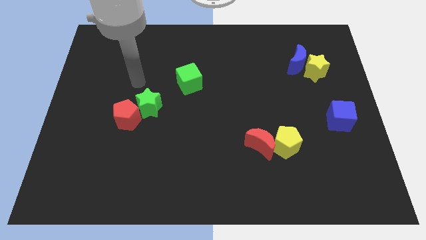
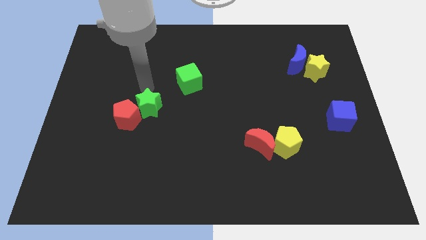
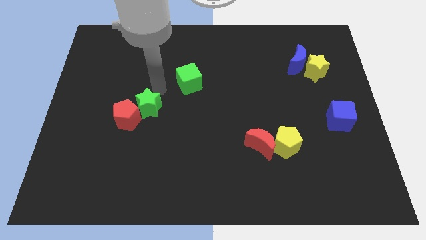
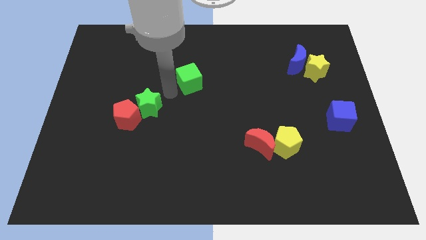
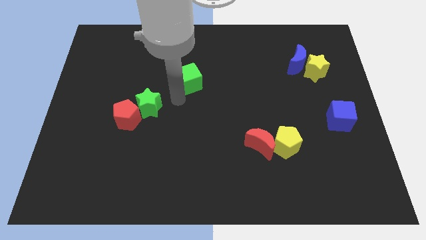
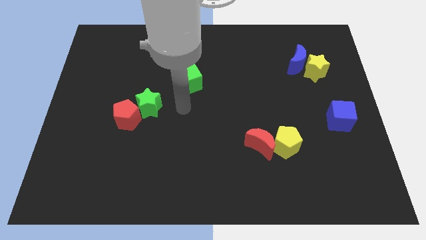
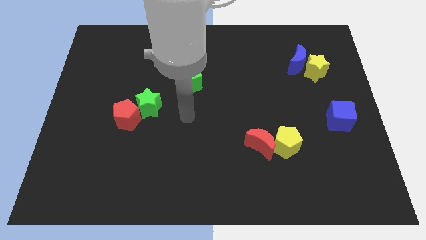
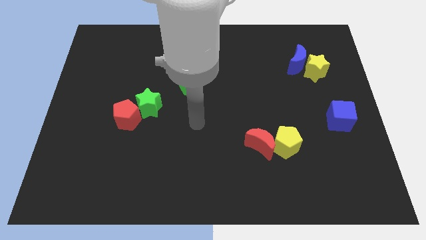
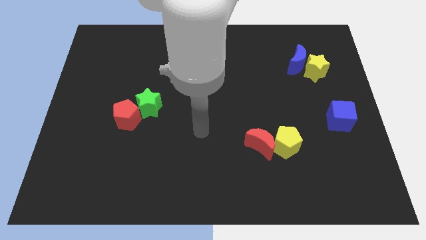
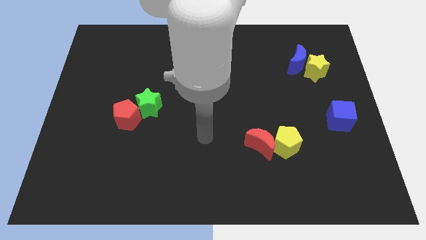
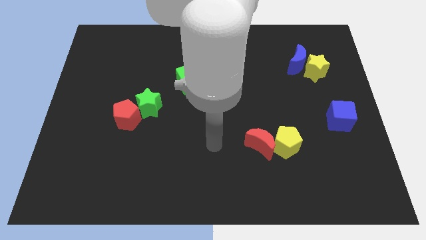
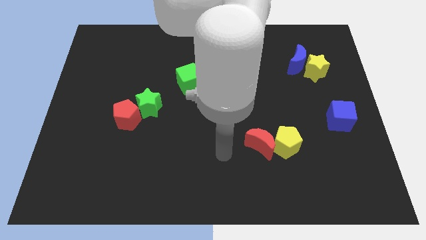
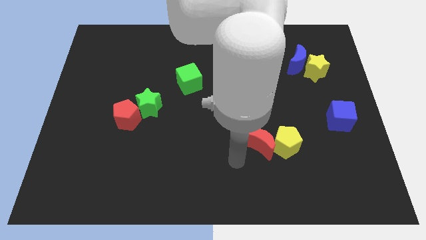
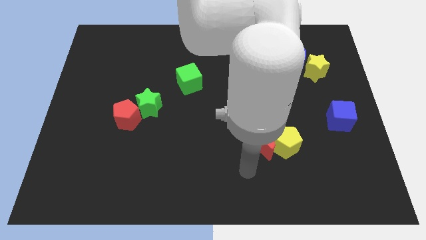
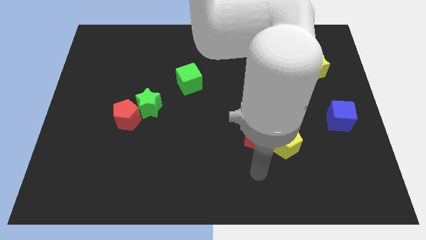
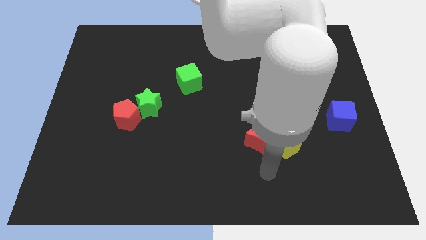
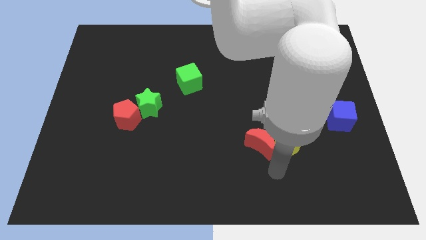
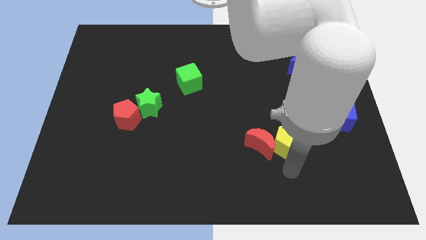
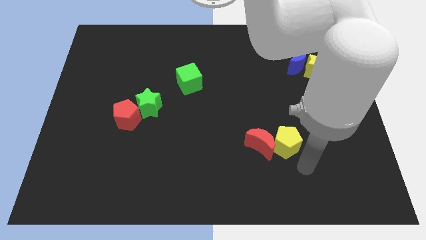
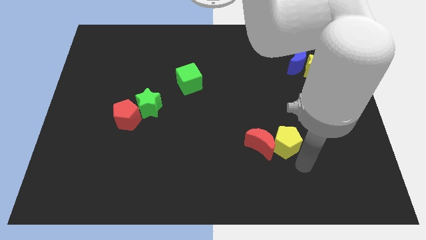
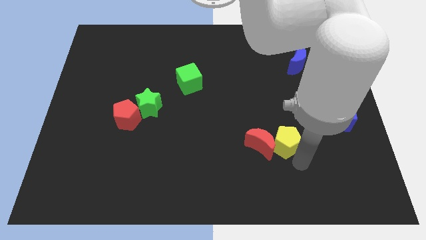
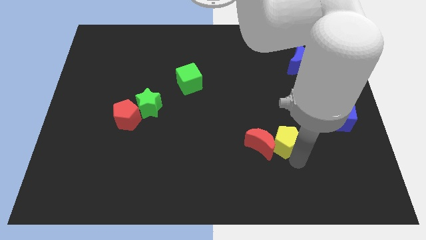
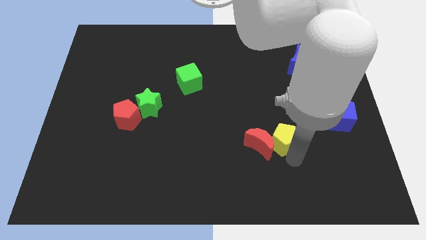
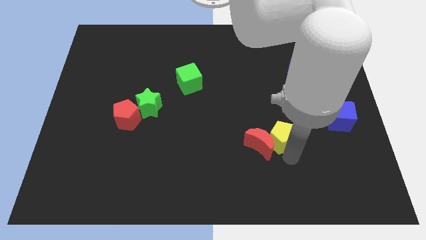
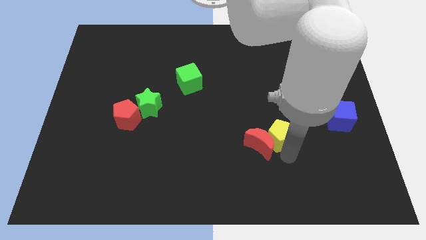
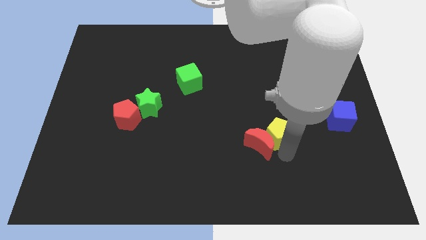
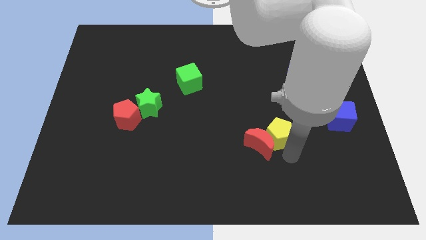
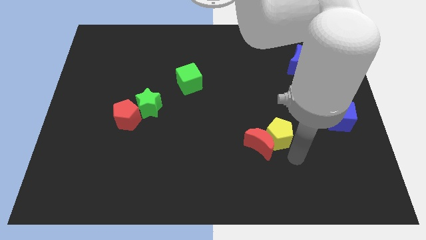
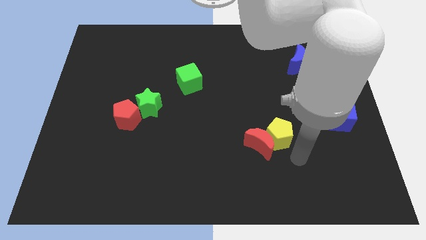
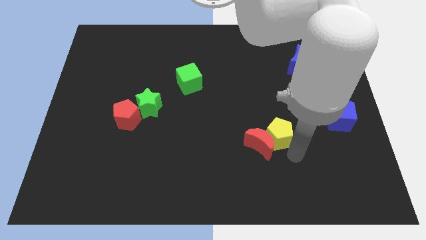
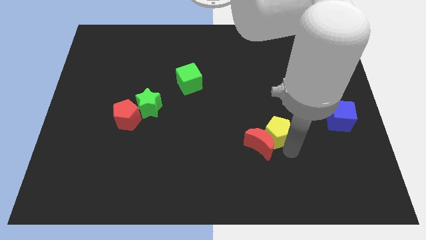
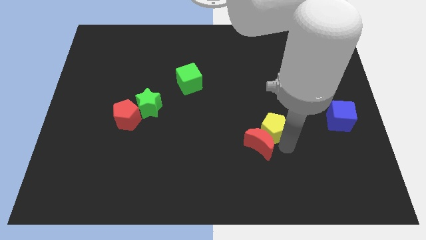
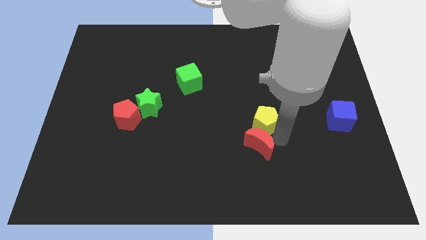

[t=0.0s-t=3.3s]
push the yellow pentagon somewhat upwards and then to the left

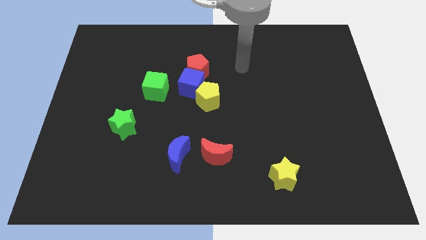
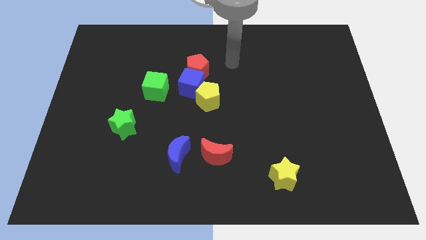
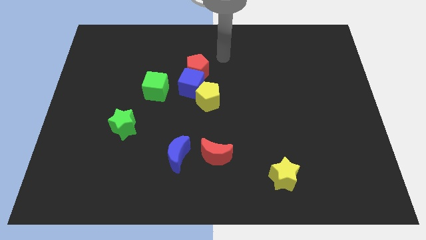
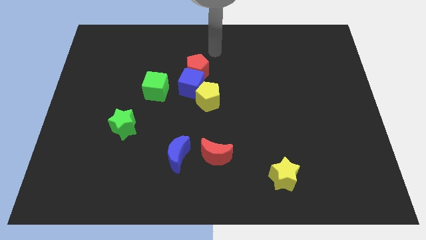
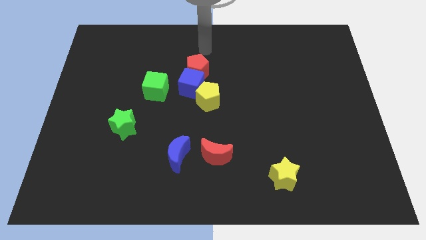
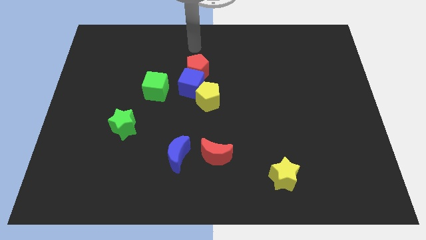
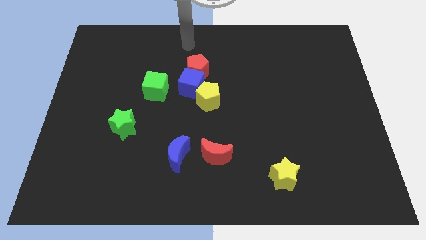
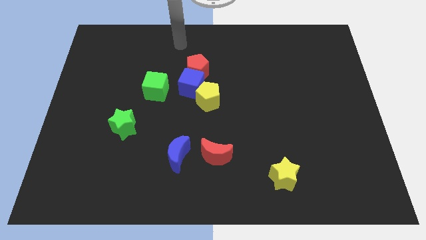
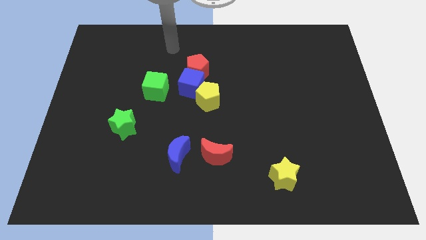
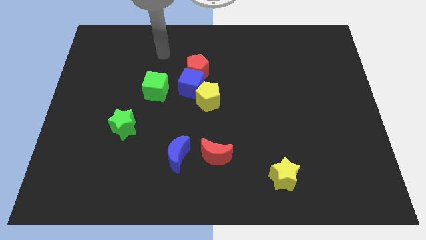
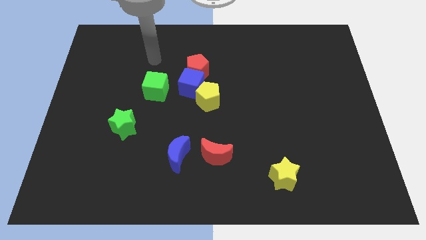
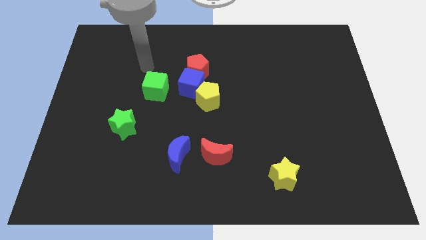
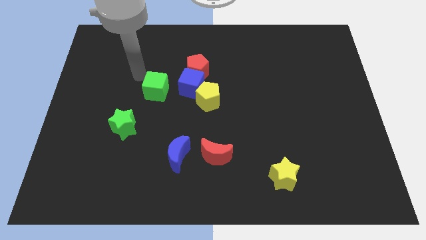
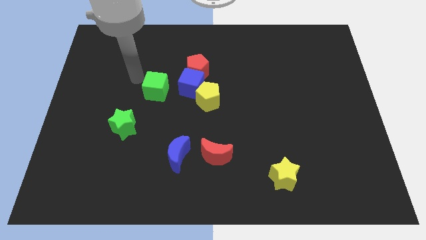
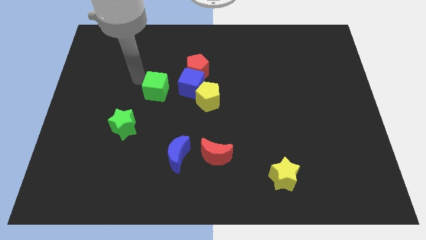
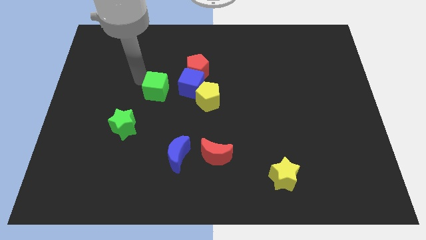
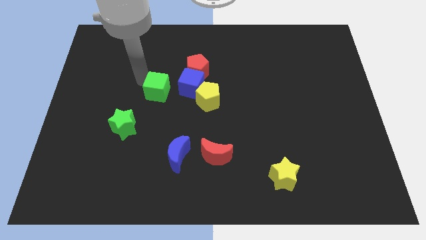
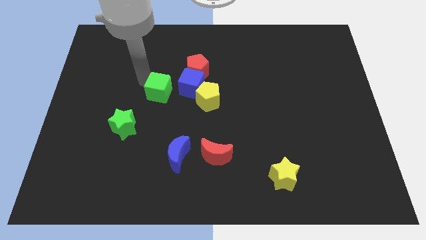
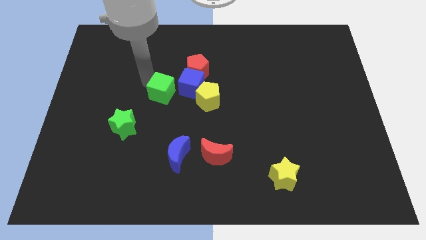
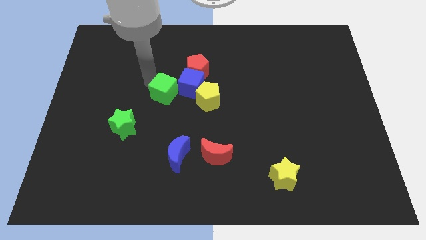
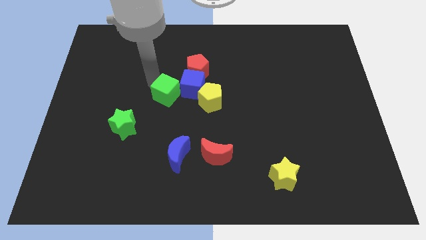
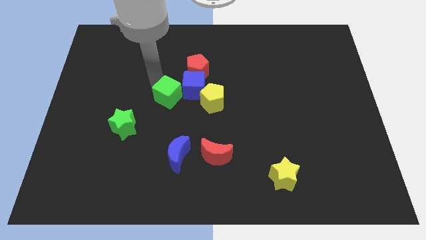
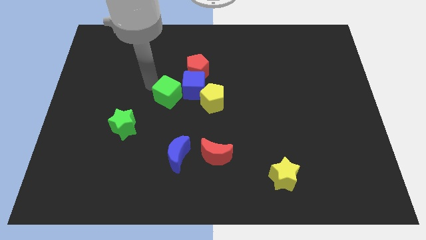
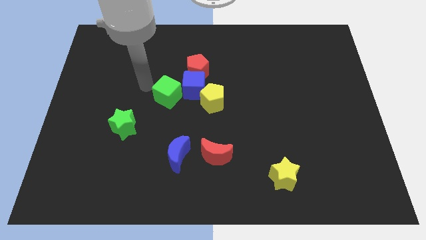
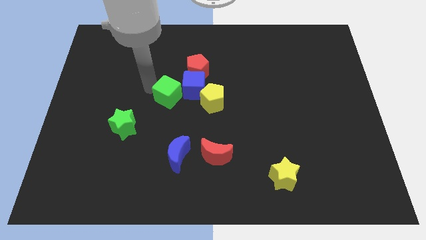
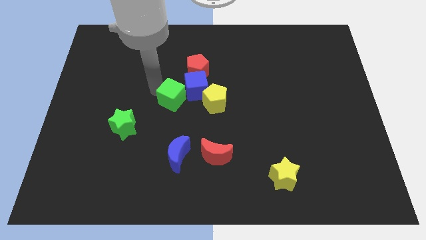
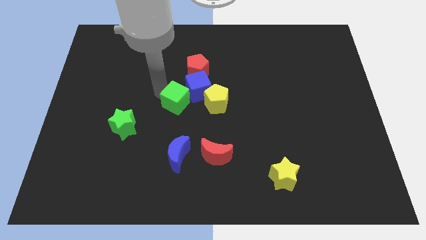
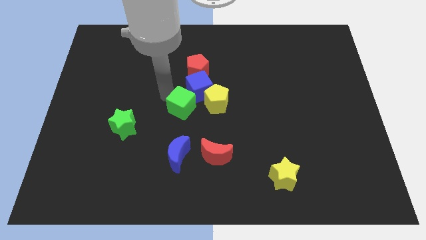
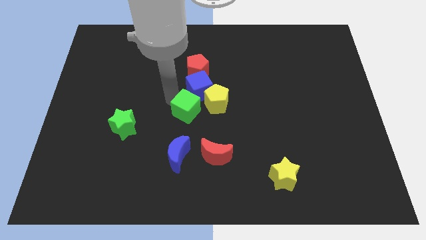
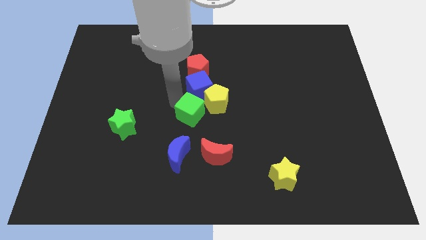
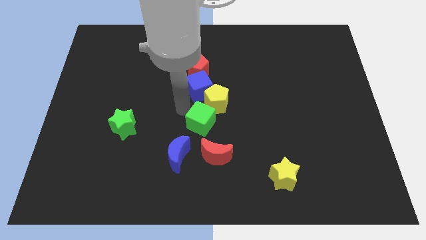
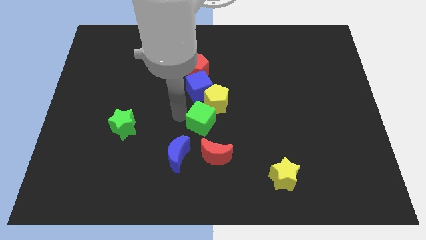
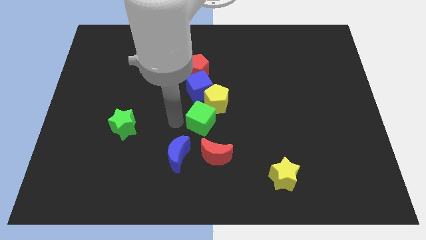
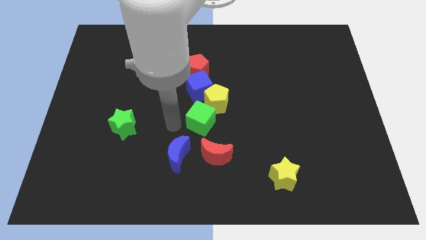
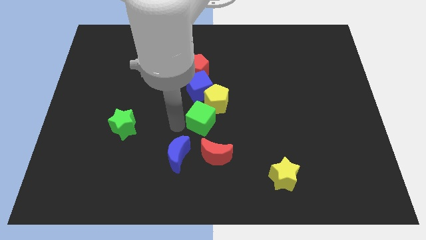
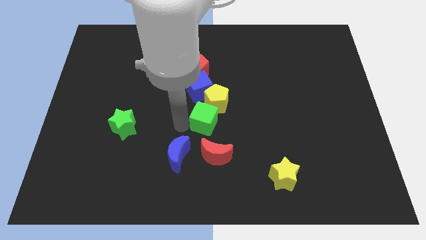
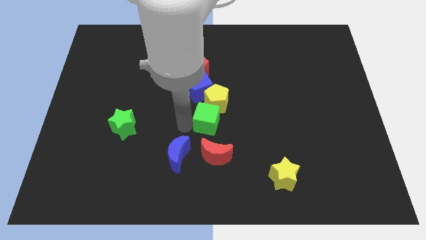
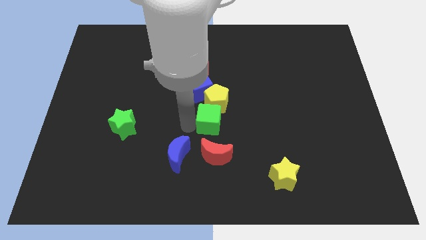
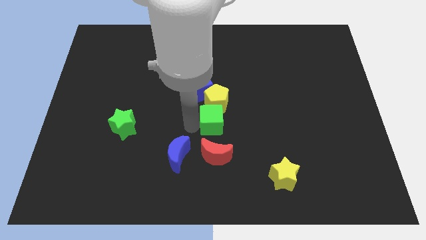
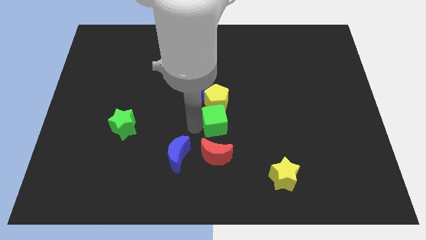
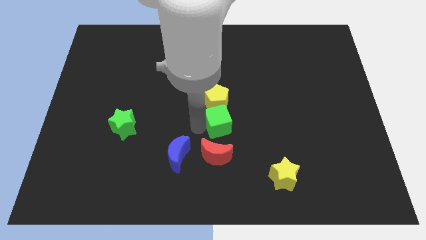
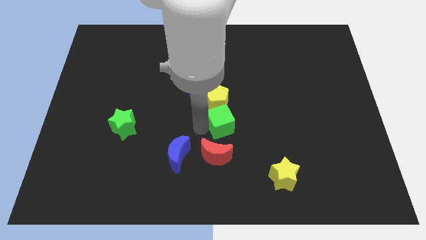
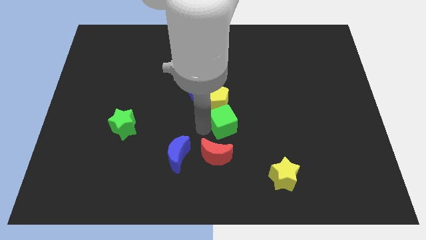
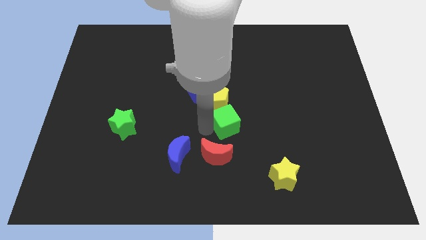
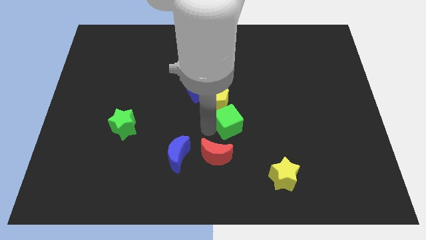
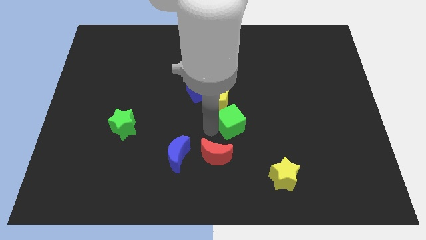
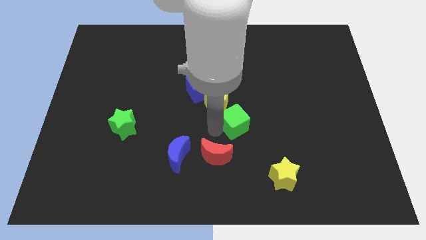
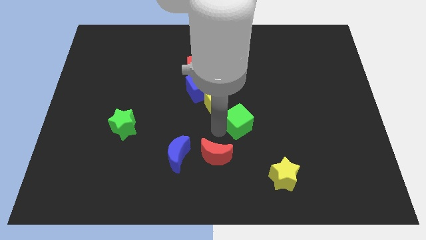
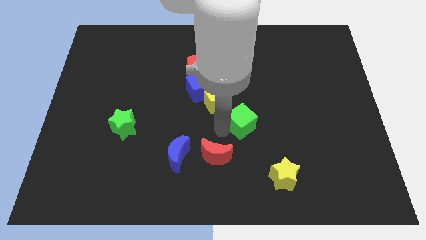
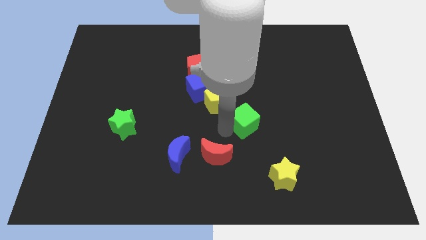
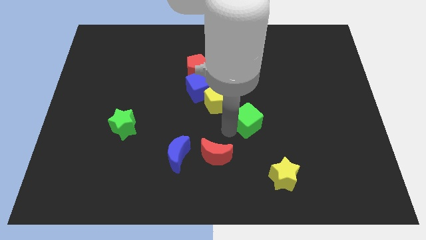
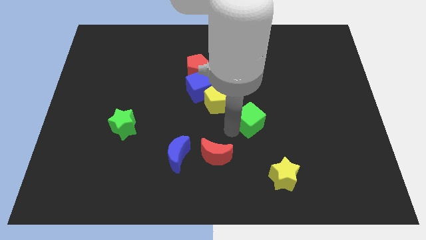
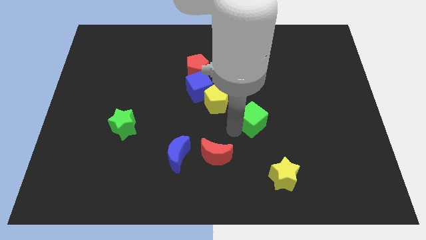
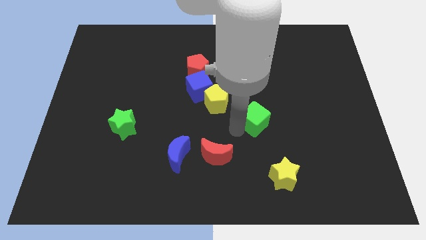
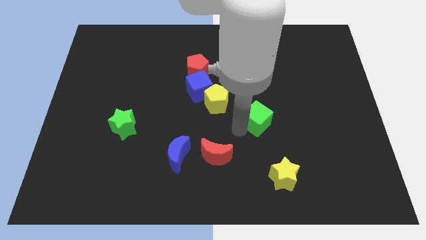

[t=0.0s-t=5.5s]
slide the green cube to the right
